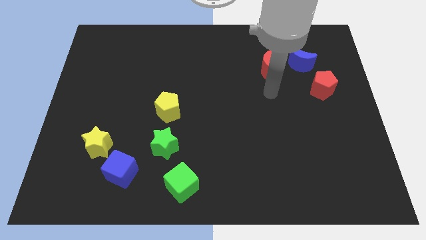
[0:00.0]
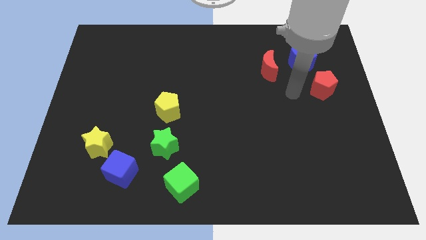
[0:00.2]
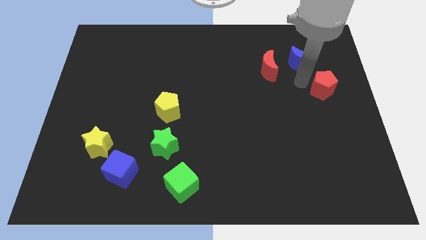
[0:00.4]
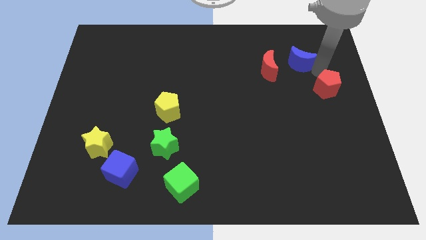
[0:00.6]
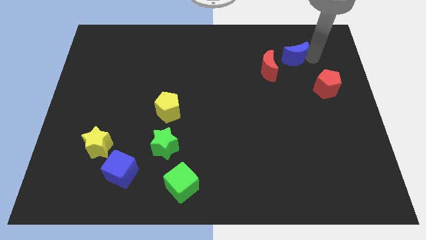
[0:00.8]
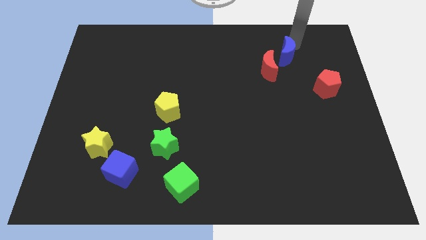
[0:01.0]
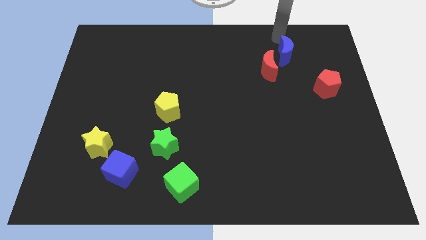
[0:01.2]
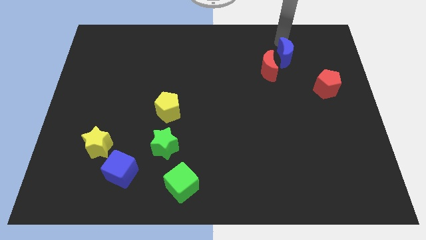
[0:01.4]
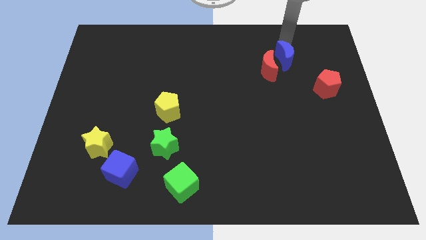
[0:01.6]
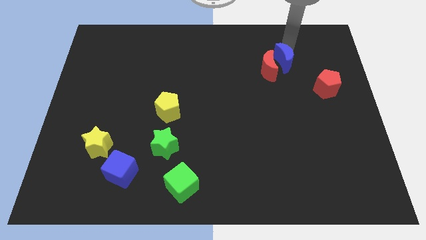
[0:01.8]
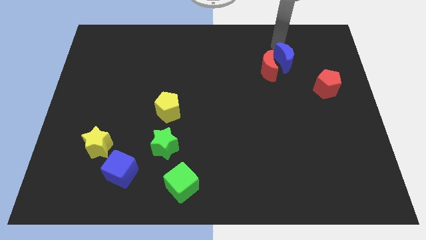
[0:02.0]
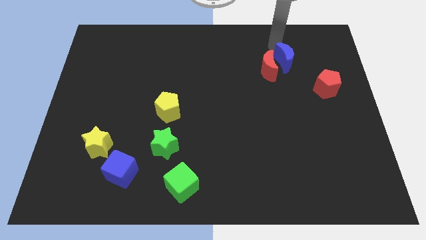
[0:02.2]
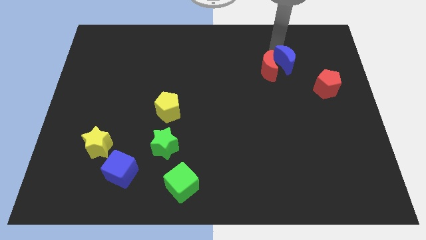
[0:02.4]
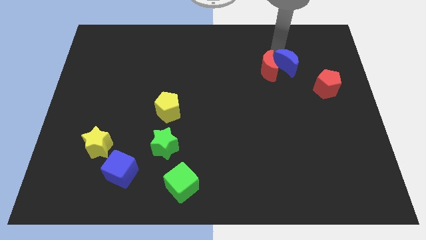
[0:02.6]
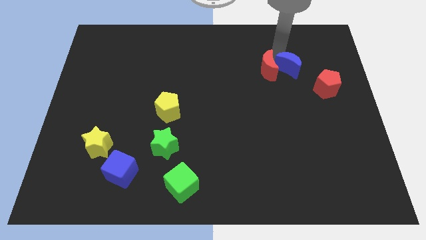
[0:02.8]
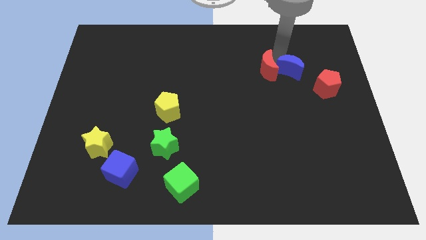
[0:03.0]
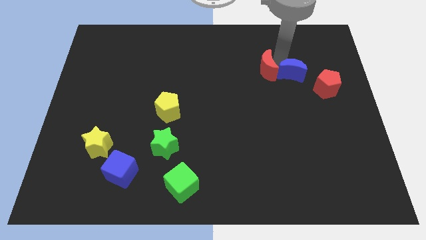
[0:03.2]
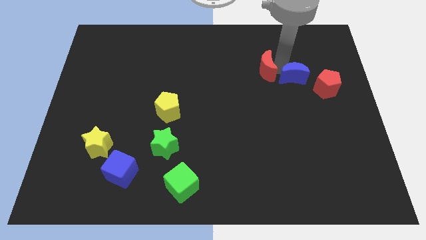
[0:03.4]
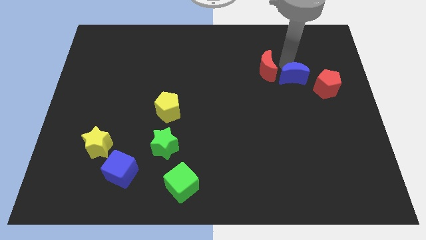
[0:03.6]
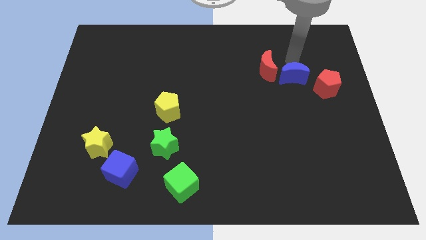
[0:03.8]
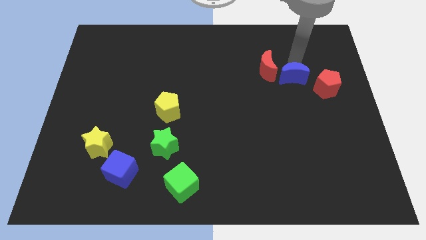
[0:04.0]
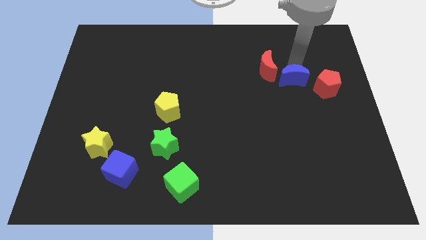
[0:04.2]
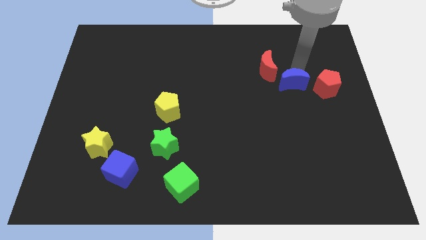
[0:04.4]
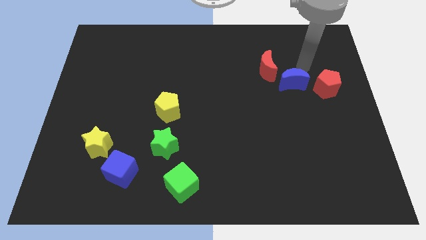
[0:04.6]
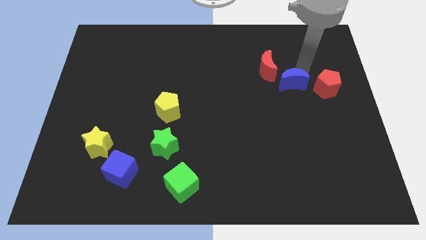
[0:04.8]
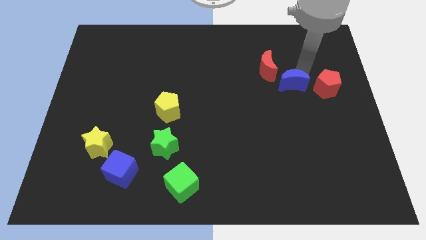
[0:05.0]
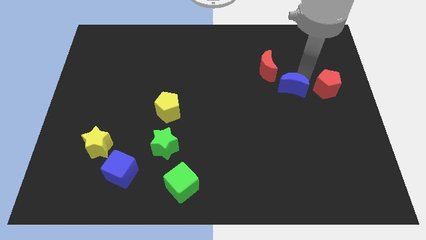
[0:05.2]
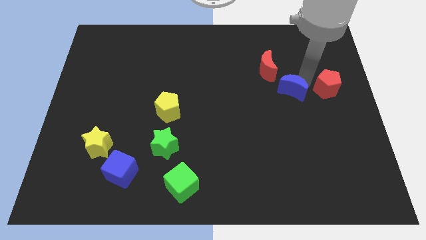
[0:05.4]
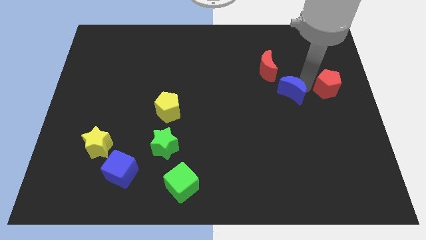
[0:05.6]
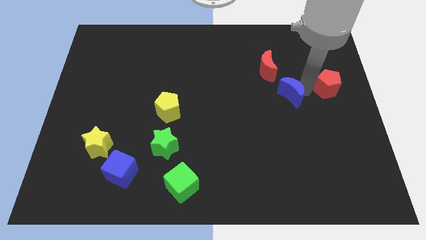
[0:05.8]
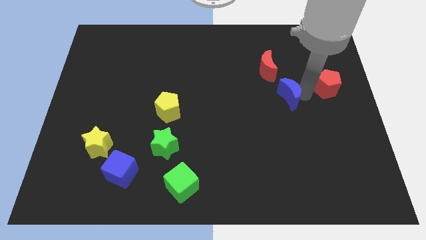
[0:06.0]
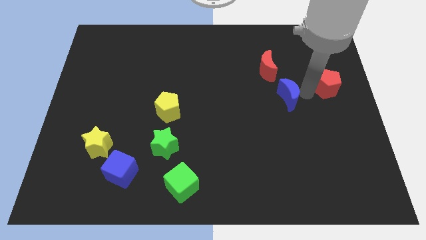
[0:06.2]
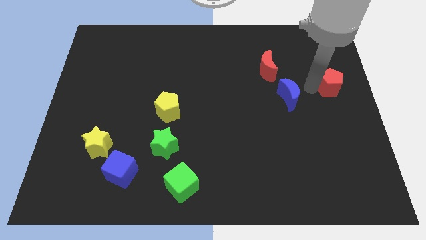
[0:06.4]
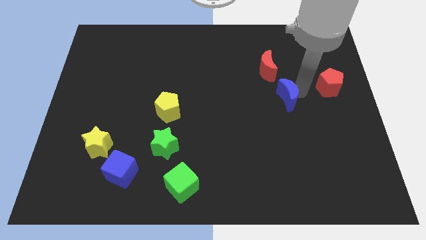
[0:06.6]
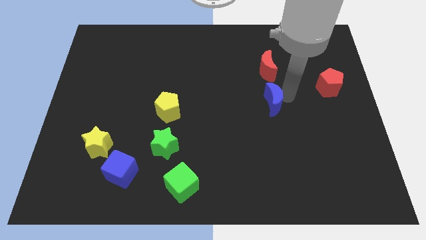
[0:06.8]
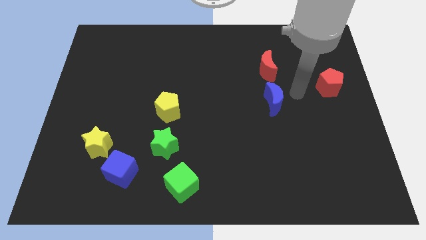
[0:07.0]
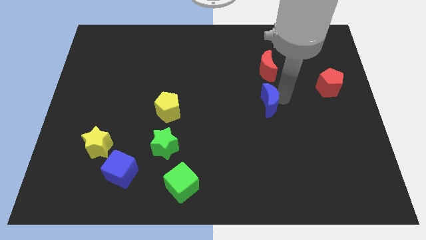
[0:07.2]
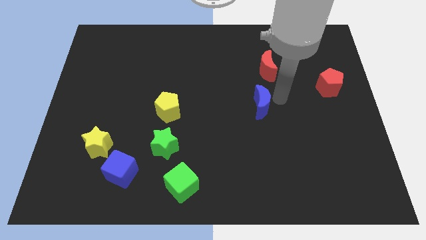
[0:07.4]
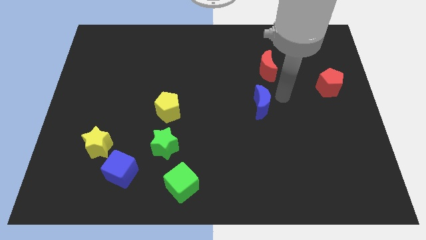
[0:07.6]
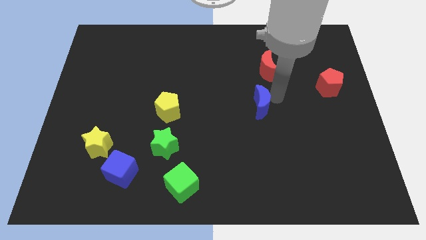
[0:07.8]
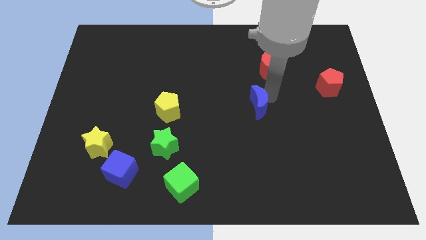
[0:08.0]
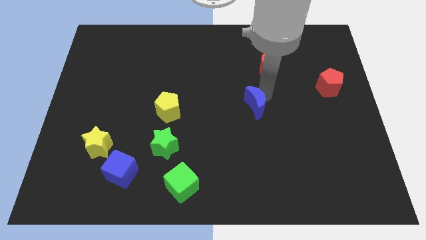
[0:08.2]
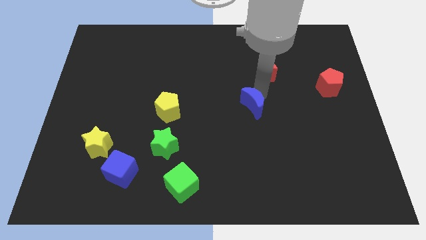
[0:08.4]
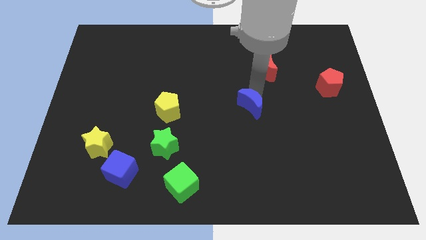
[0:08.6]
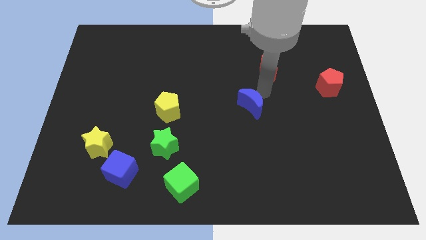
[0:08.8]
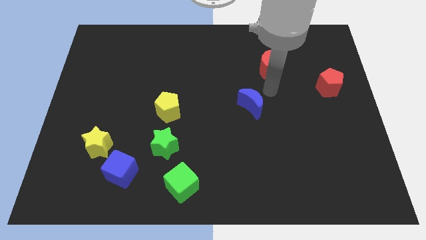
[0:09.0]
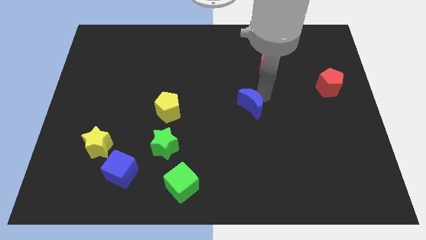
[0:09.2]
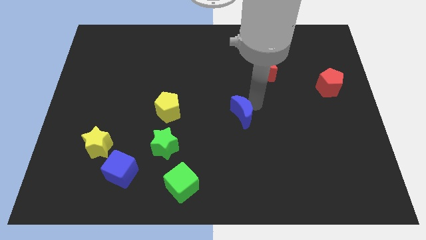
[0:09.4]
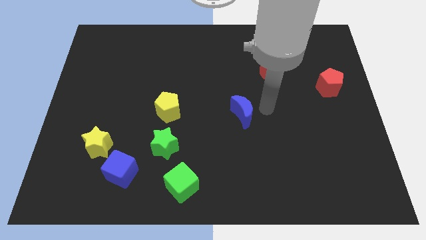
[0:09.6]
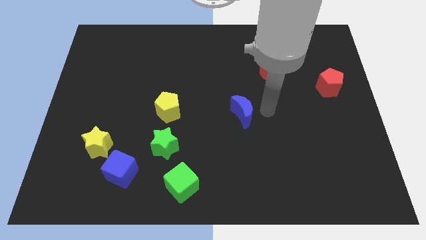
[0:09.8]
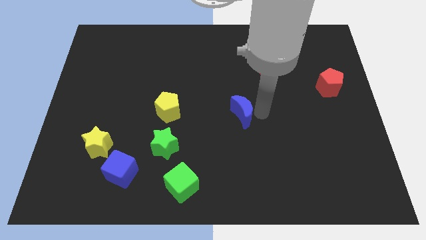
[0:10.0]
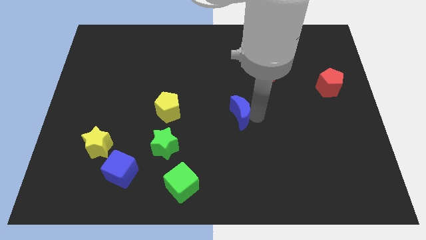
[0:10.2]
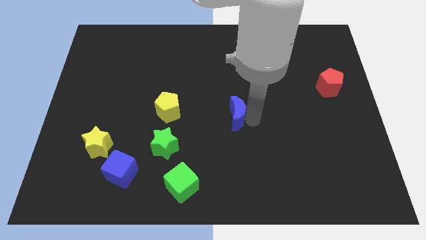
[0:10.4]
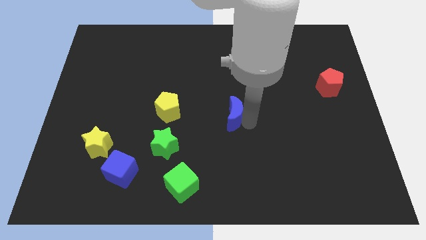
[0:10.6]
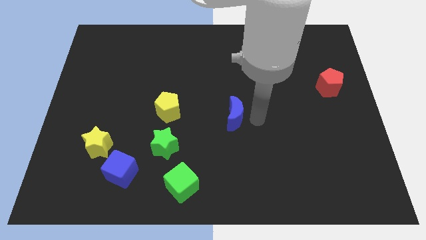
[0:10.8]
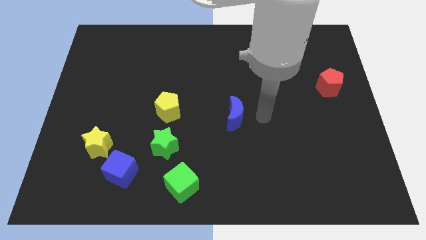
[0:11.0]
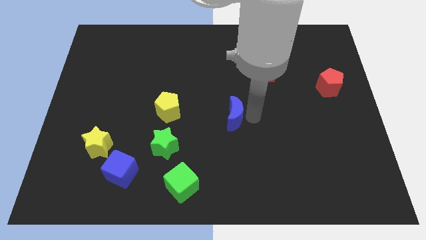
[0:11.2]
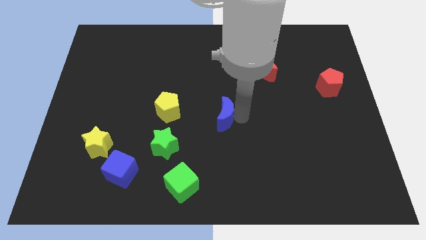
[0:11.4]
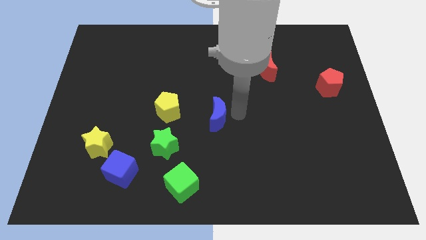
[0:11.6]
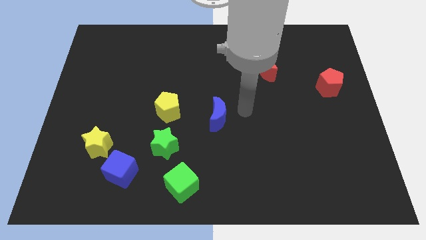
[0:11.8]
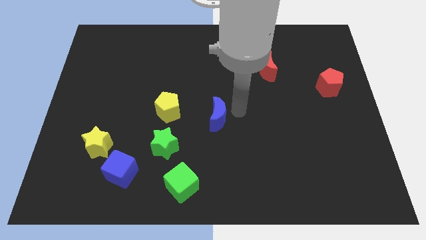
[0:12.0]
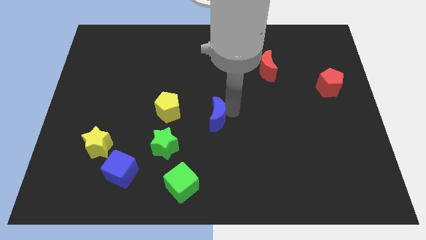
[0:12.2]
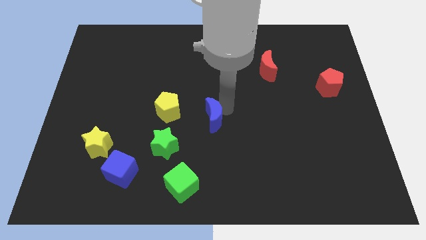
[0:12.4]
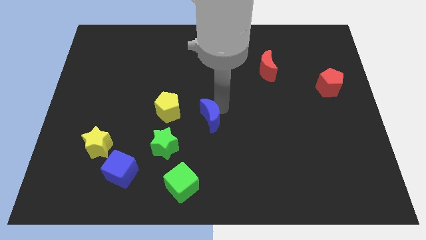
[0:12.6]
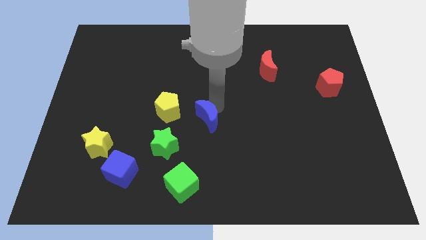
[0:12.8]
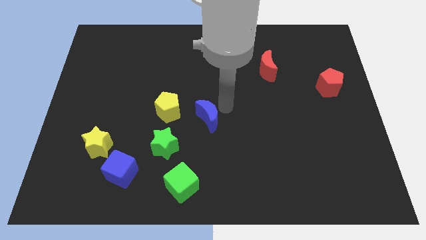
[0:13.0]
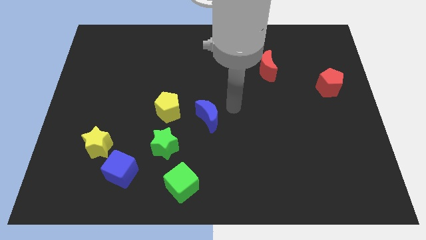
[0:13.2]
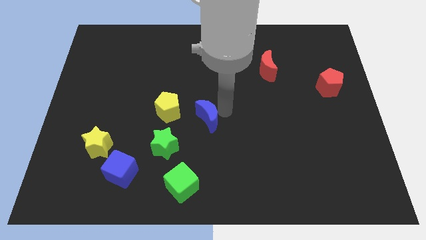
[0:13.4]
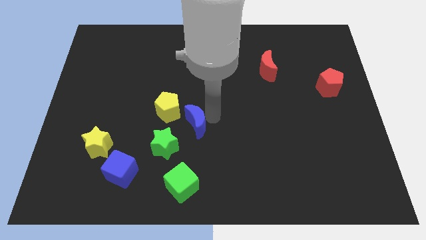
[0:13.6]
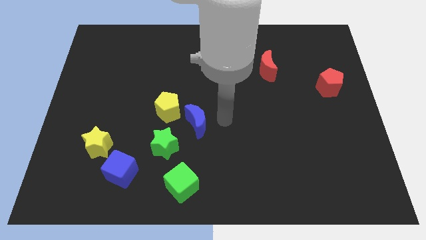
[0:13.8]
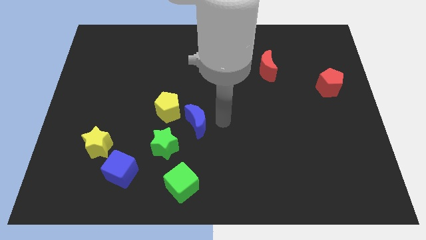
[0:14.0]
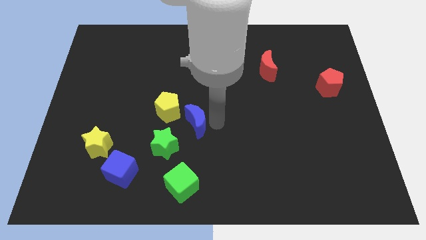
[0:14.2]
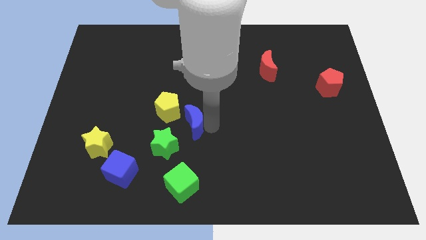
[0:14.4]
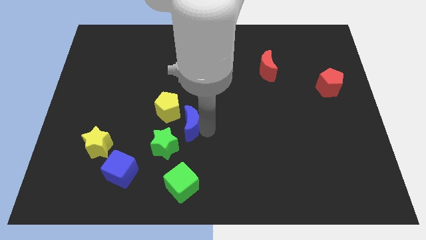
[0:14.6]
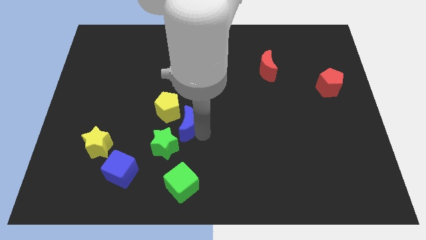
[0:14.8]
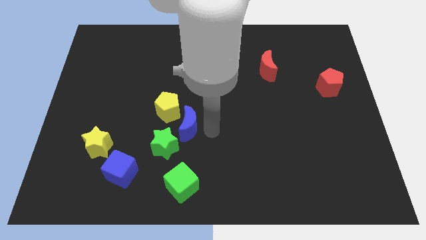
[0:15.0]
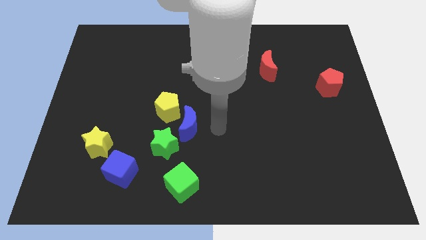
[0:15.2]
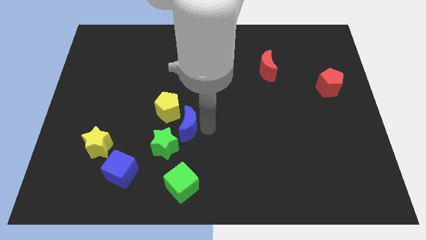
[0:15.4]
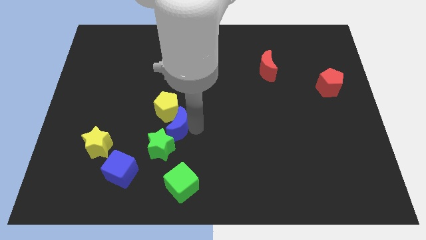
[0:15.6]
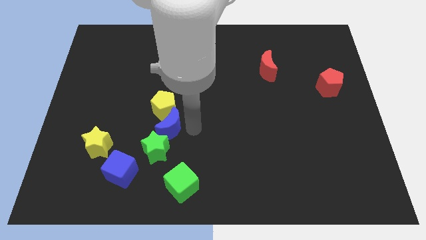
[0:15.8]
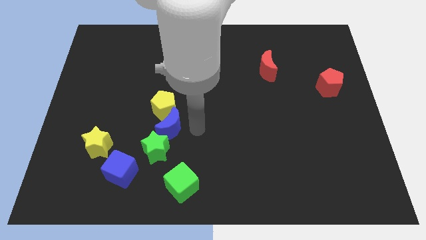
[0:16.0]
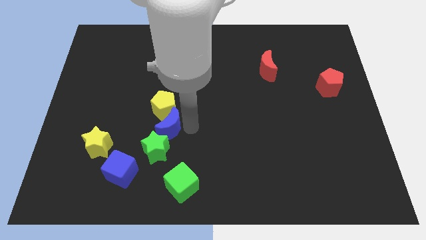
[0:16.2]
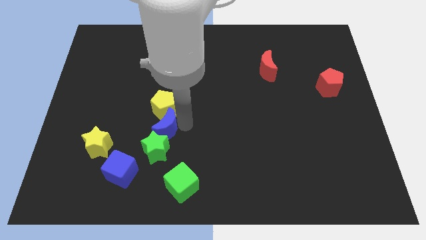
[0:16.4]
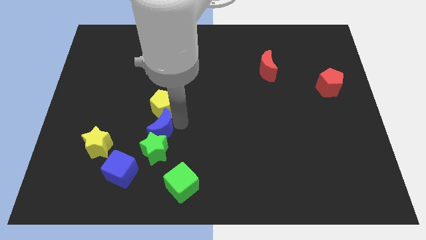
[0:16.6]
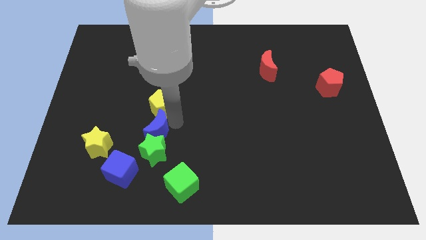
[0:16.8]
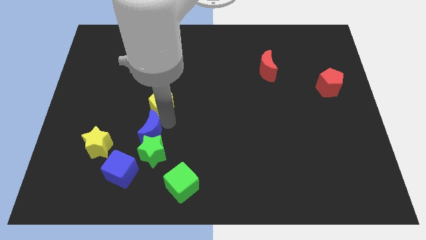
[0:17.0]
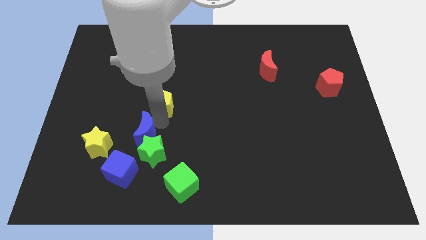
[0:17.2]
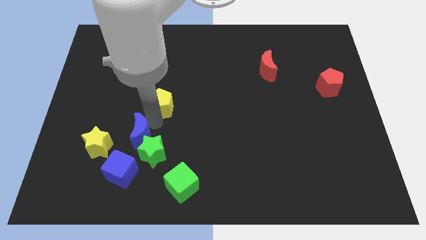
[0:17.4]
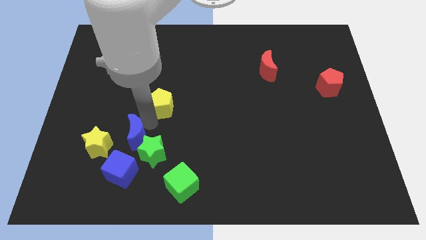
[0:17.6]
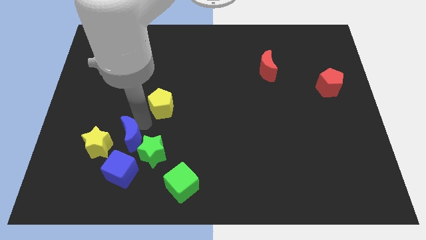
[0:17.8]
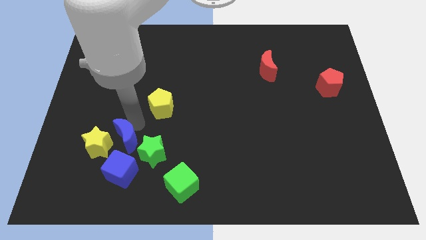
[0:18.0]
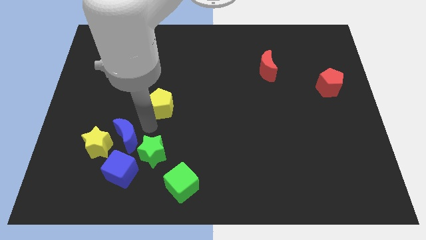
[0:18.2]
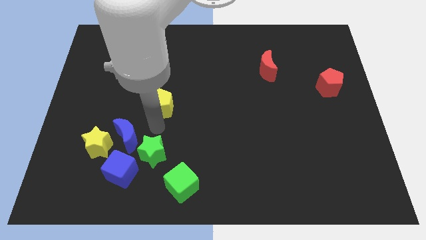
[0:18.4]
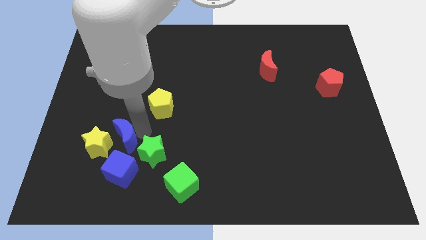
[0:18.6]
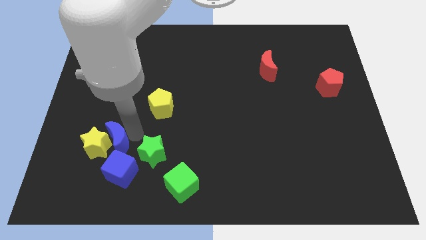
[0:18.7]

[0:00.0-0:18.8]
move the blue moon towards the yellow star
